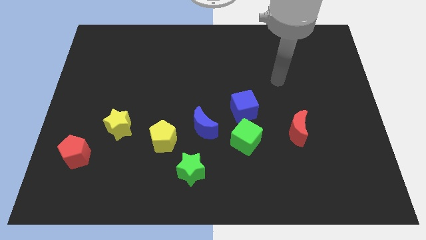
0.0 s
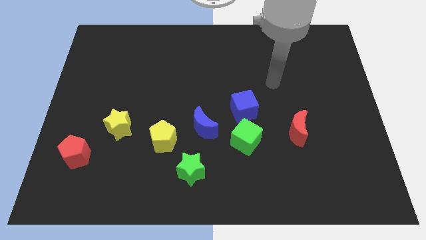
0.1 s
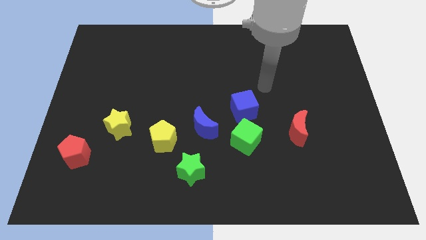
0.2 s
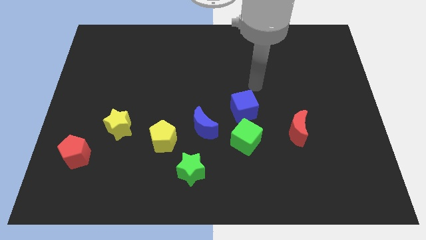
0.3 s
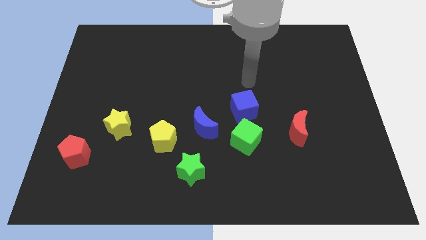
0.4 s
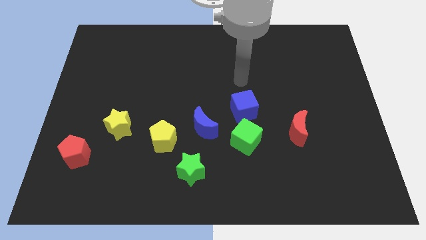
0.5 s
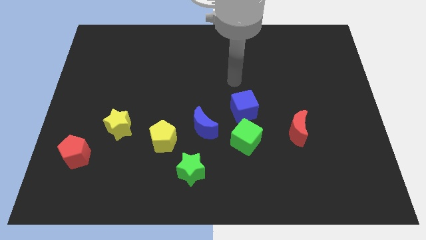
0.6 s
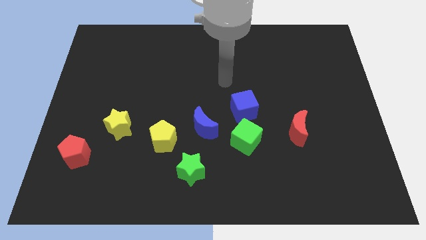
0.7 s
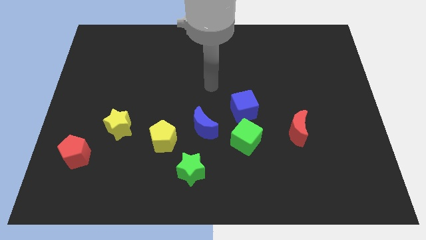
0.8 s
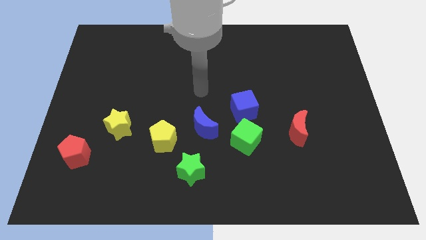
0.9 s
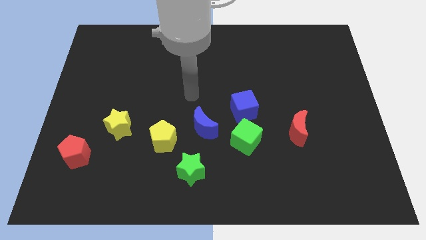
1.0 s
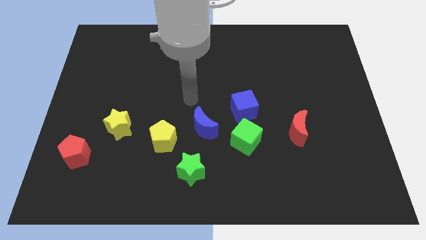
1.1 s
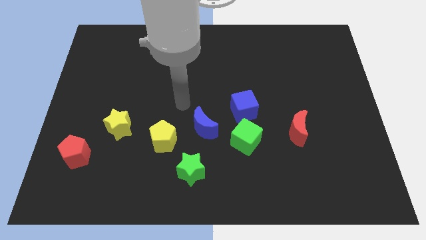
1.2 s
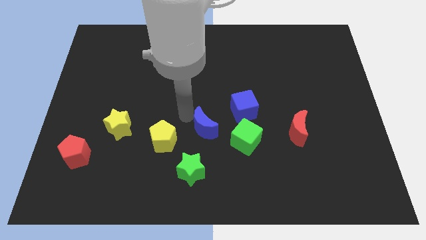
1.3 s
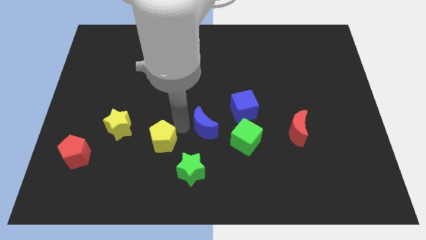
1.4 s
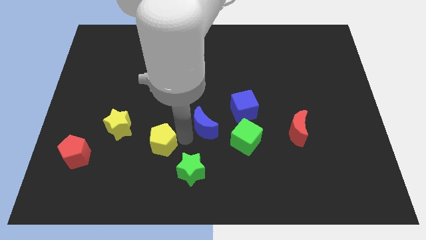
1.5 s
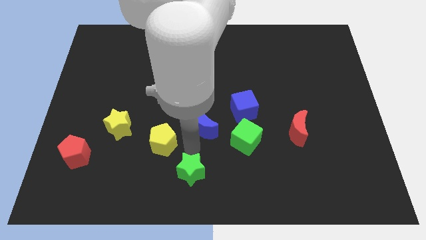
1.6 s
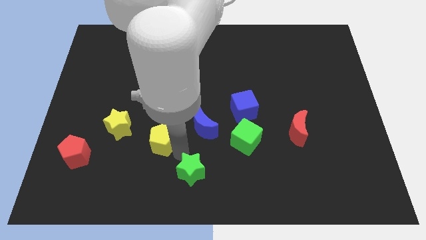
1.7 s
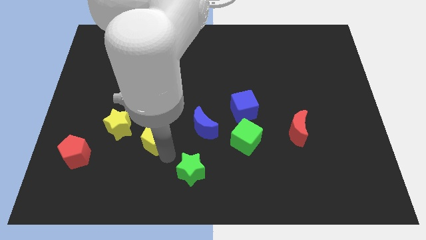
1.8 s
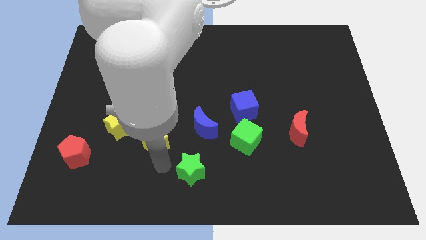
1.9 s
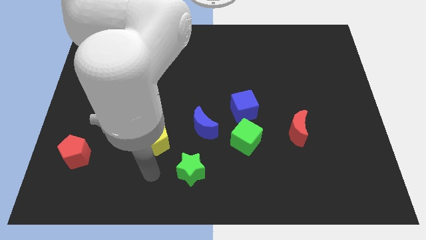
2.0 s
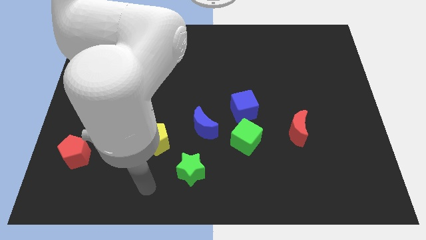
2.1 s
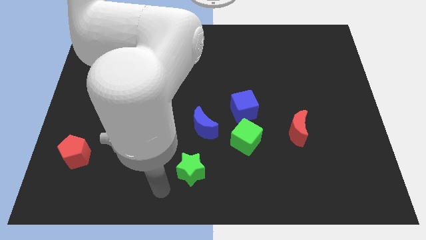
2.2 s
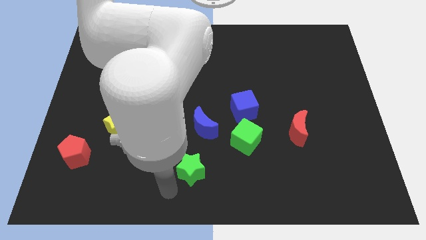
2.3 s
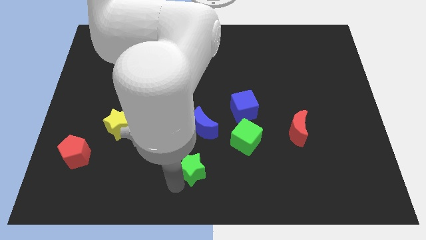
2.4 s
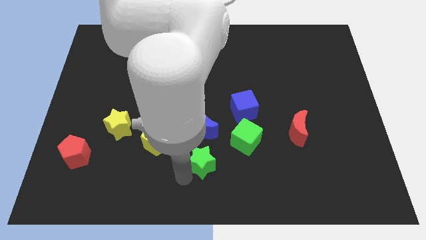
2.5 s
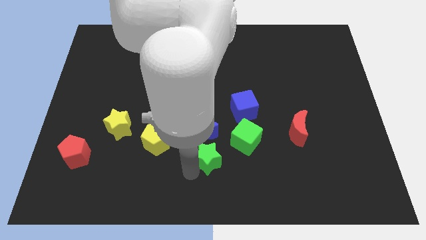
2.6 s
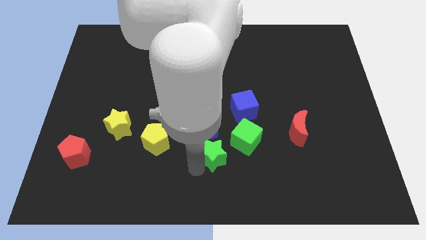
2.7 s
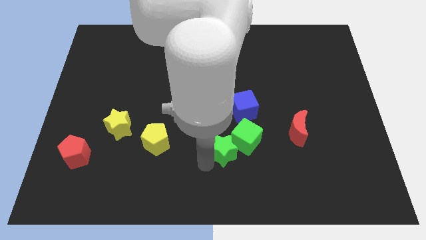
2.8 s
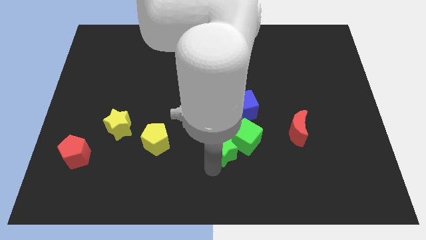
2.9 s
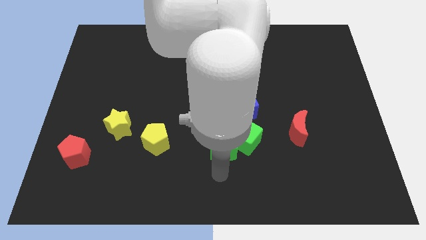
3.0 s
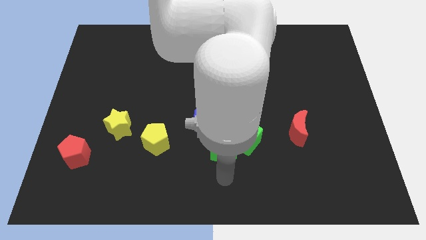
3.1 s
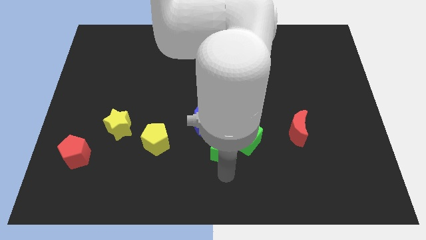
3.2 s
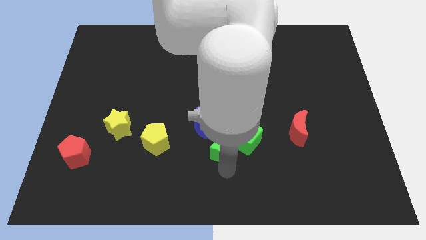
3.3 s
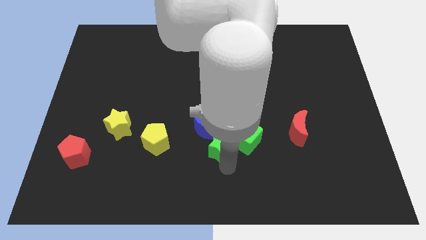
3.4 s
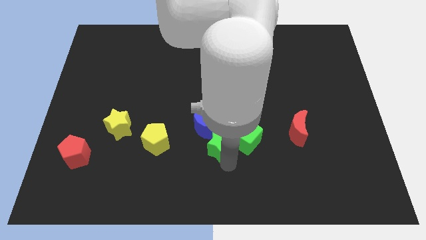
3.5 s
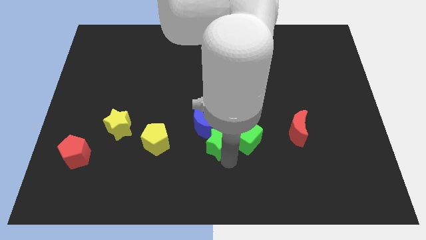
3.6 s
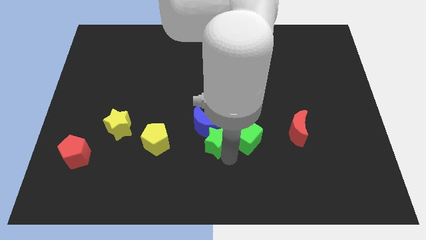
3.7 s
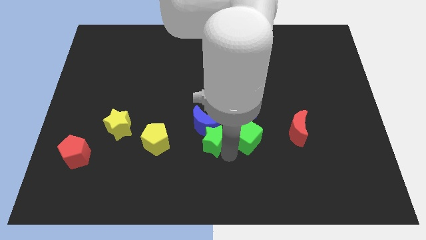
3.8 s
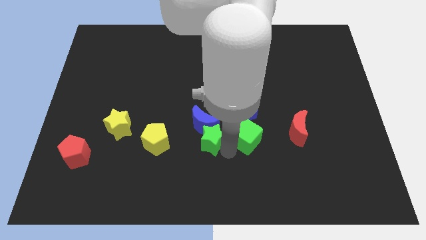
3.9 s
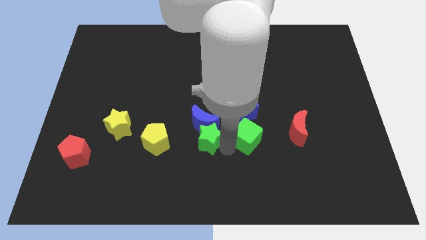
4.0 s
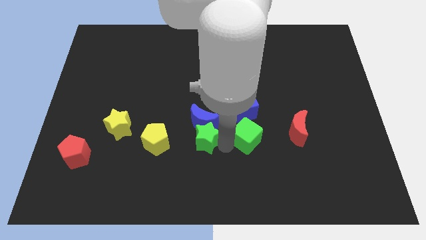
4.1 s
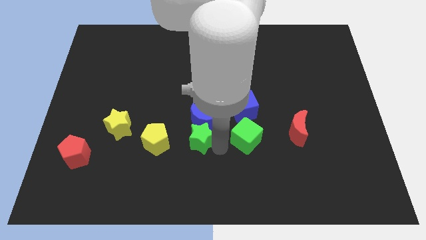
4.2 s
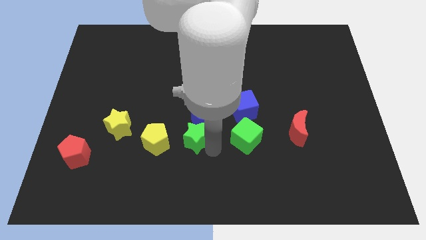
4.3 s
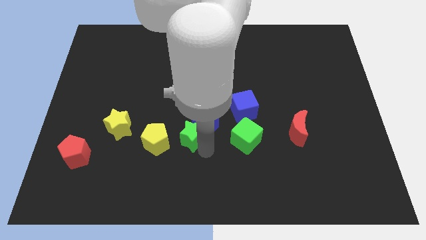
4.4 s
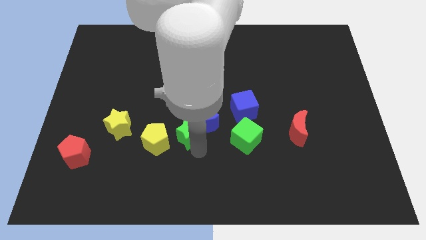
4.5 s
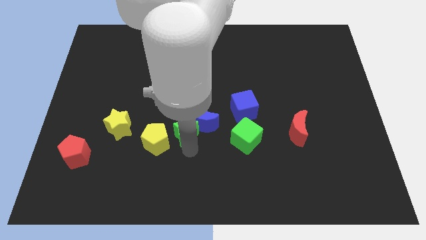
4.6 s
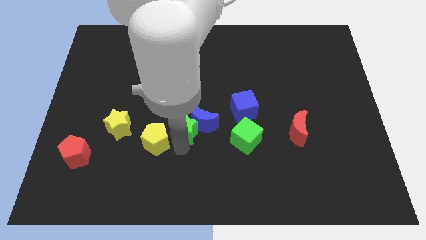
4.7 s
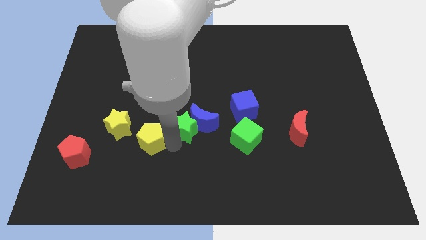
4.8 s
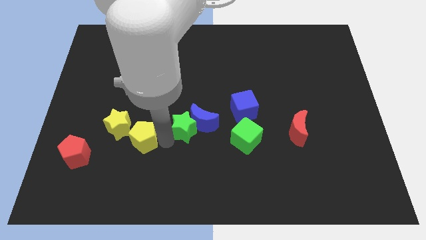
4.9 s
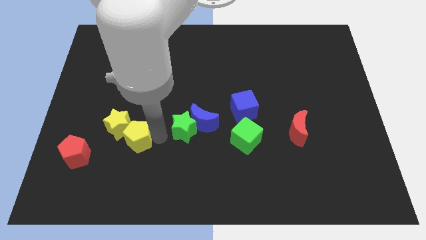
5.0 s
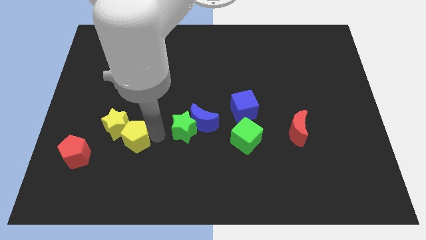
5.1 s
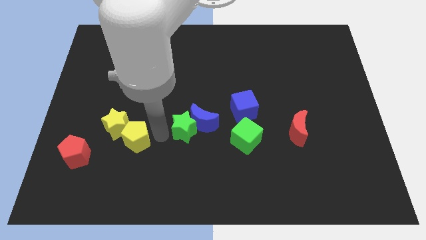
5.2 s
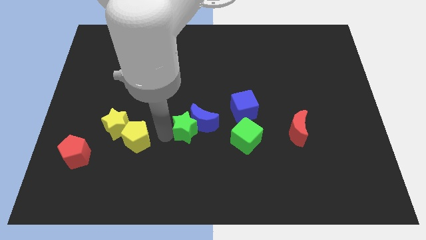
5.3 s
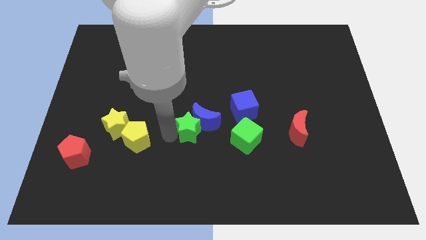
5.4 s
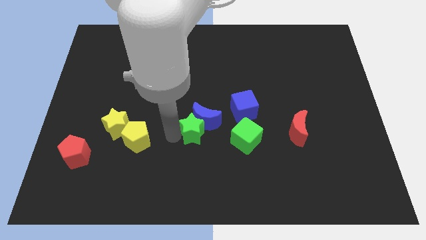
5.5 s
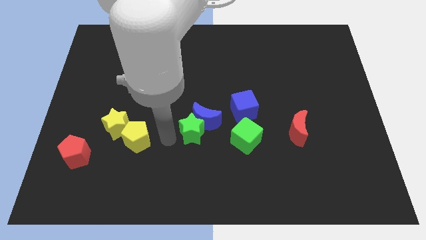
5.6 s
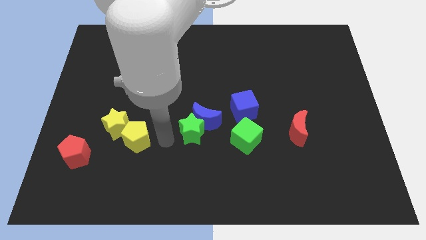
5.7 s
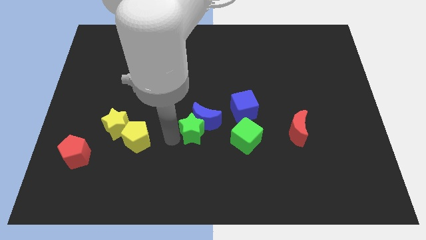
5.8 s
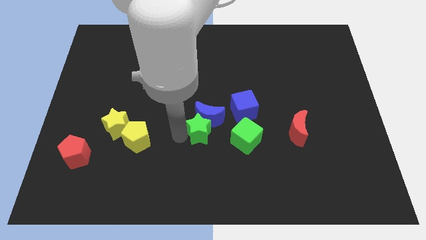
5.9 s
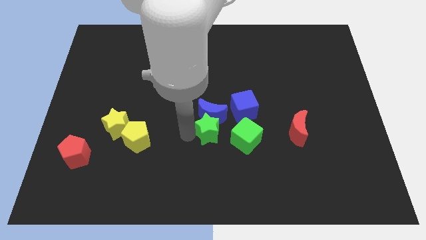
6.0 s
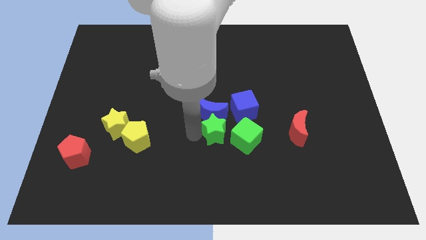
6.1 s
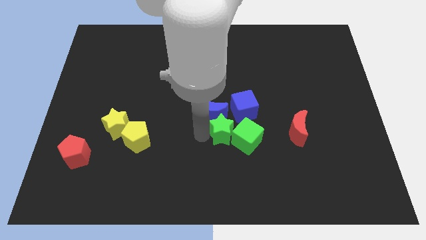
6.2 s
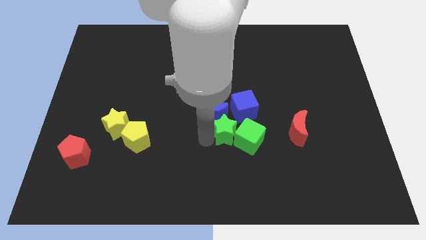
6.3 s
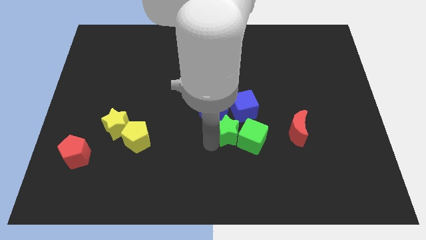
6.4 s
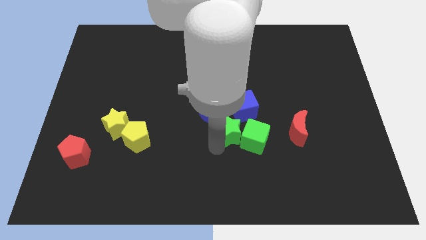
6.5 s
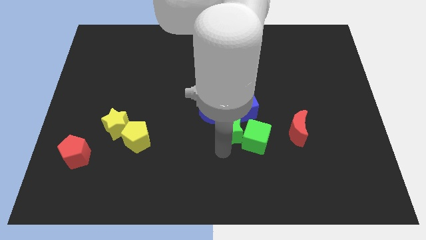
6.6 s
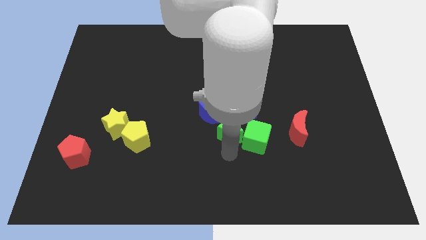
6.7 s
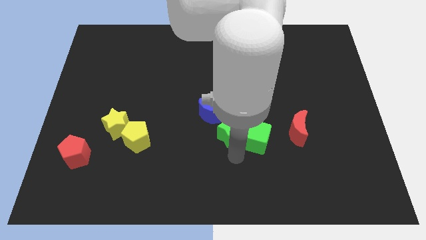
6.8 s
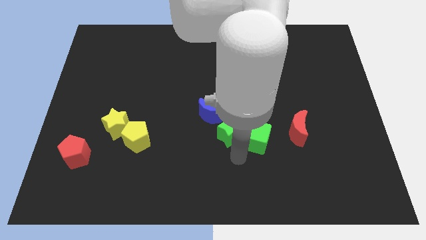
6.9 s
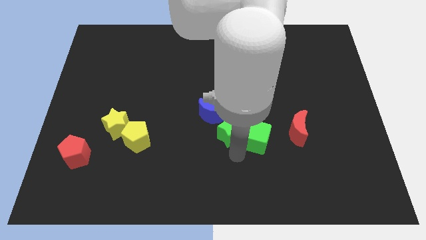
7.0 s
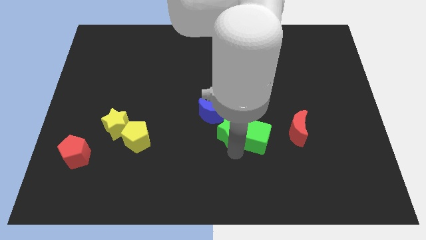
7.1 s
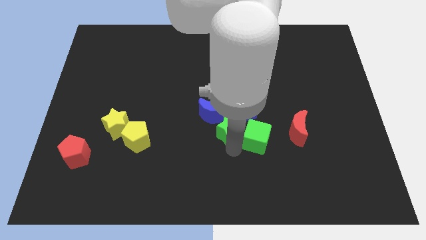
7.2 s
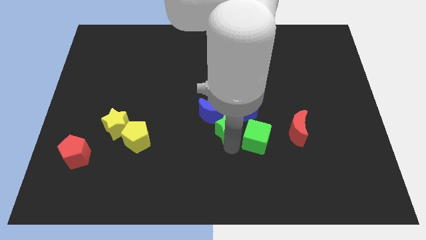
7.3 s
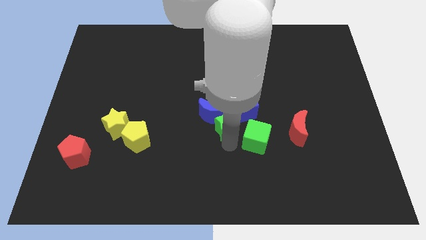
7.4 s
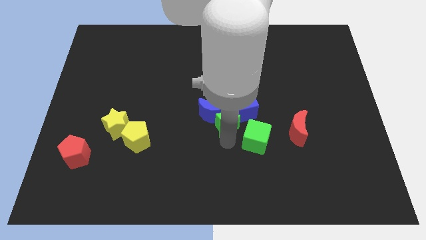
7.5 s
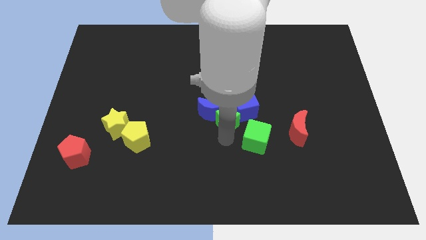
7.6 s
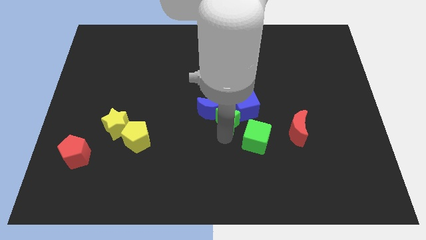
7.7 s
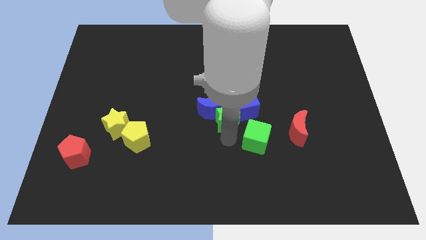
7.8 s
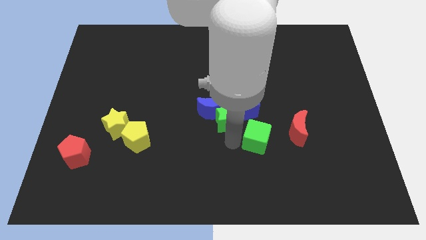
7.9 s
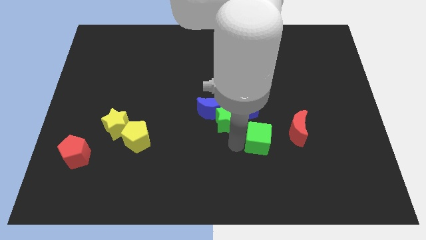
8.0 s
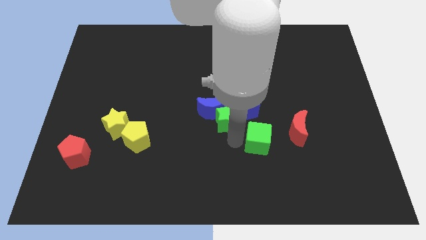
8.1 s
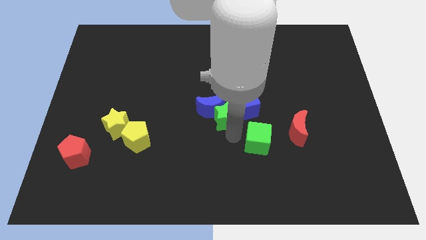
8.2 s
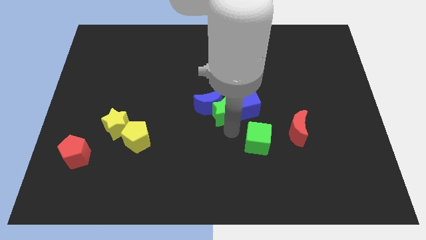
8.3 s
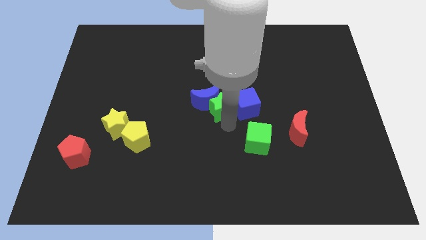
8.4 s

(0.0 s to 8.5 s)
move the green star diagonally up and to the left of the blue cube
